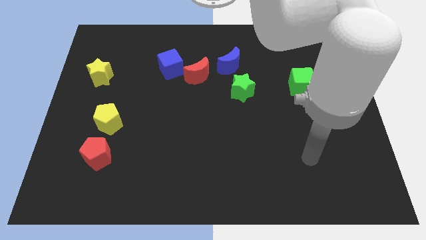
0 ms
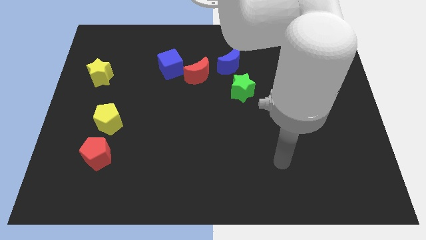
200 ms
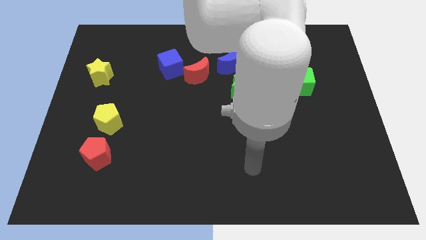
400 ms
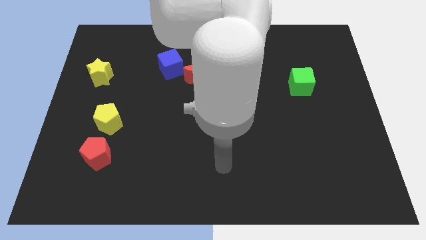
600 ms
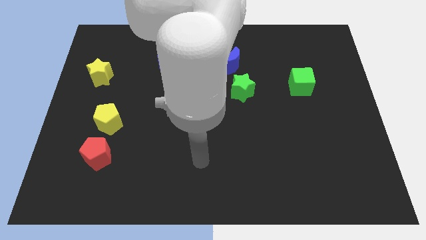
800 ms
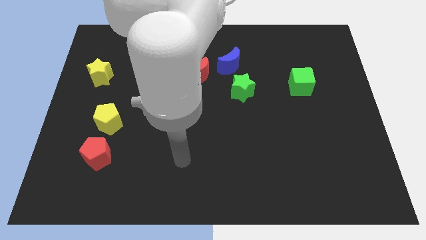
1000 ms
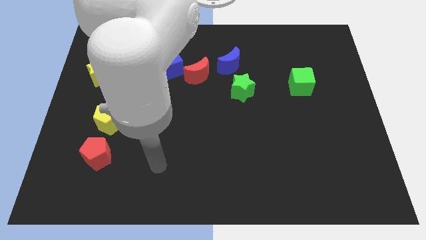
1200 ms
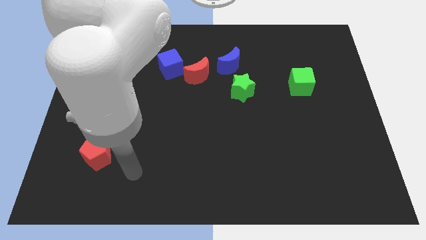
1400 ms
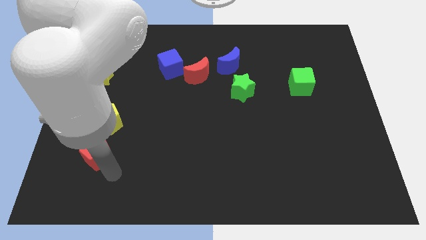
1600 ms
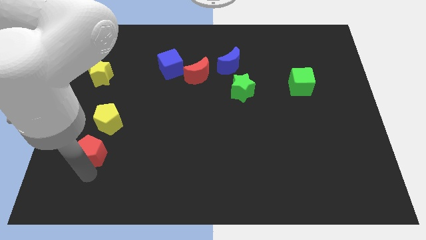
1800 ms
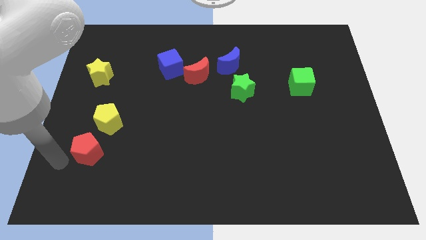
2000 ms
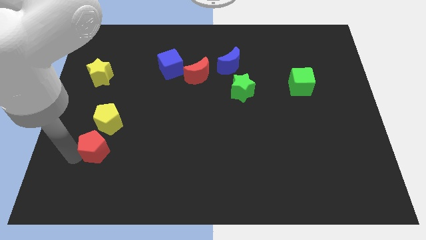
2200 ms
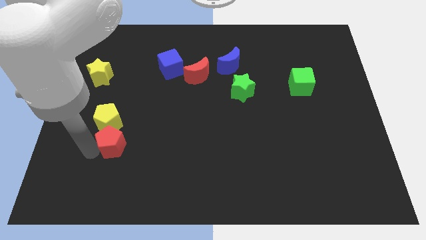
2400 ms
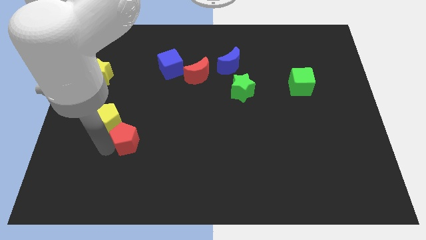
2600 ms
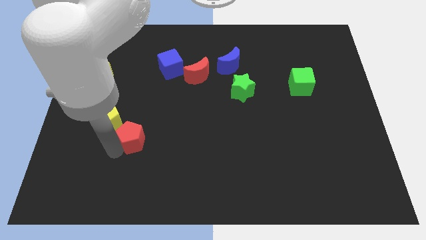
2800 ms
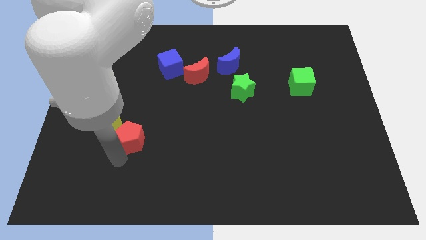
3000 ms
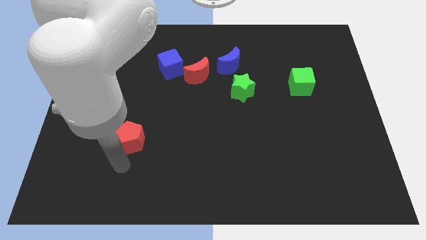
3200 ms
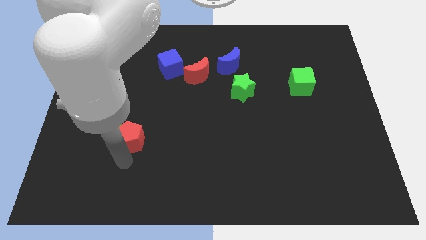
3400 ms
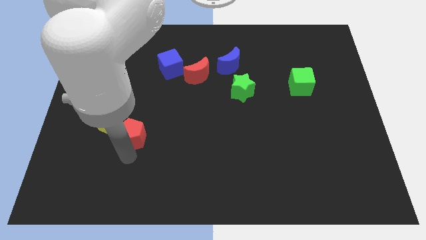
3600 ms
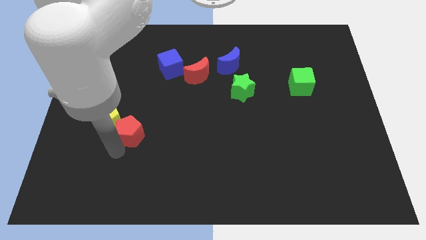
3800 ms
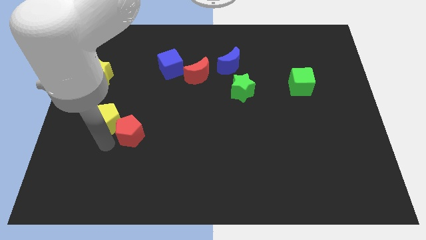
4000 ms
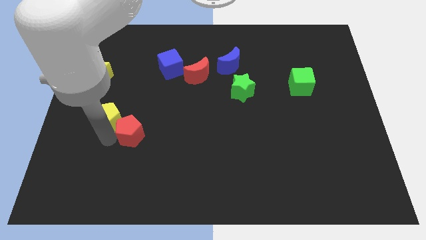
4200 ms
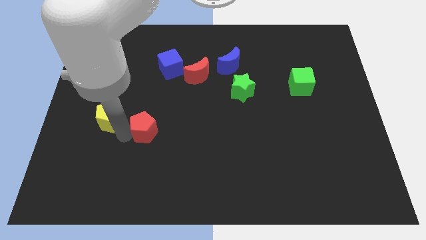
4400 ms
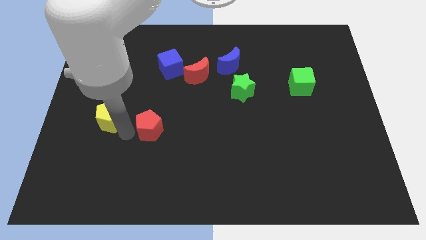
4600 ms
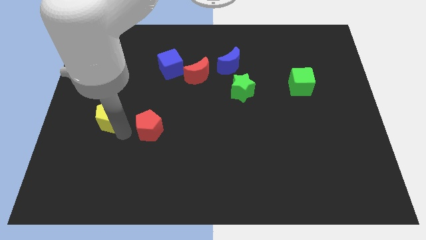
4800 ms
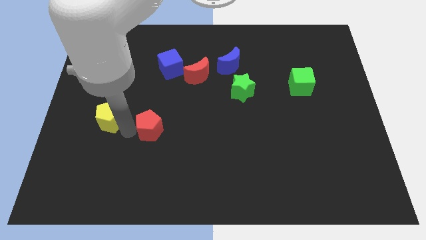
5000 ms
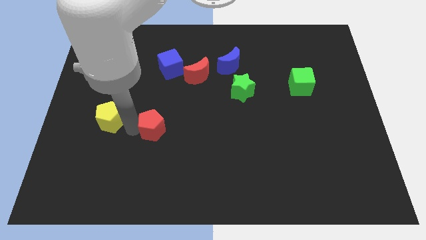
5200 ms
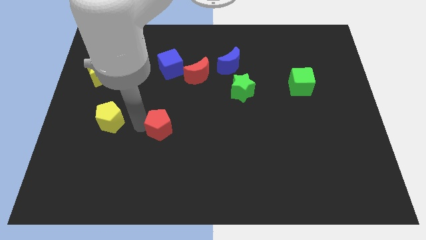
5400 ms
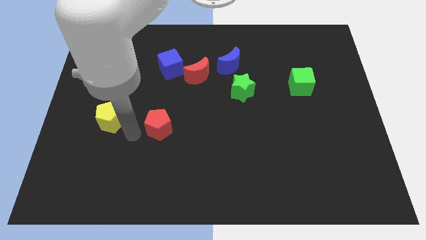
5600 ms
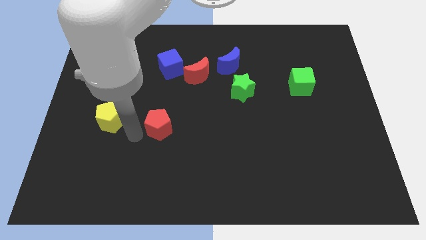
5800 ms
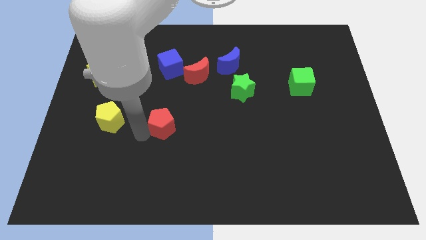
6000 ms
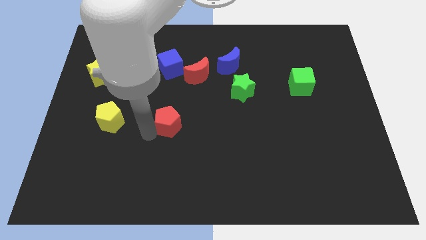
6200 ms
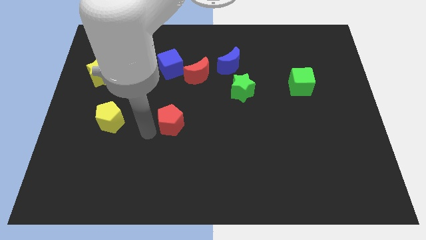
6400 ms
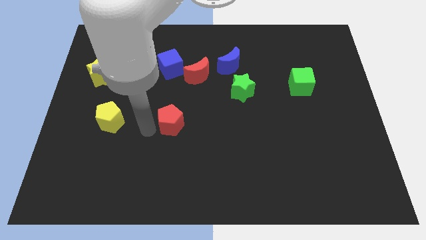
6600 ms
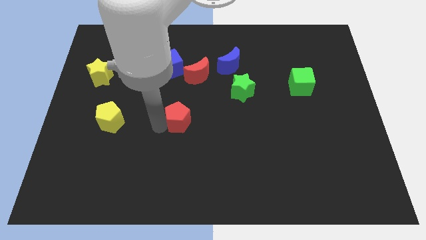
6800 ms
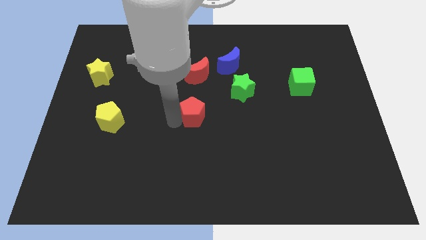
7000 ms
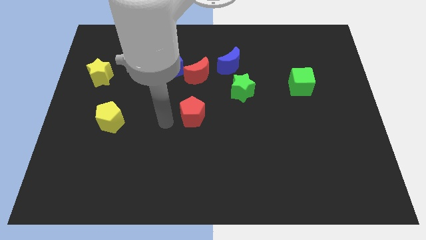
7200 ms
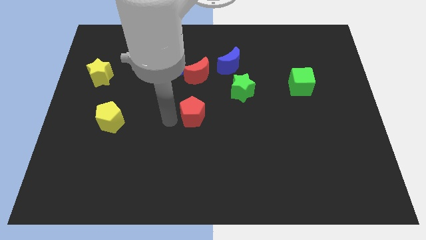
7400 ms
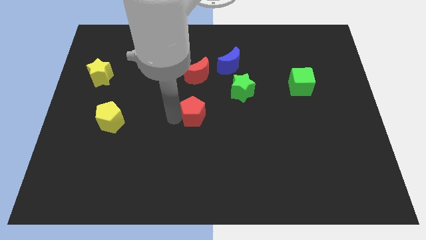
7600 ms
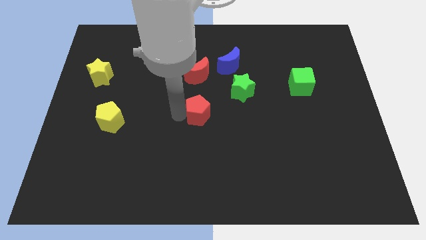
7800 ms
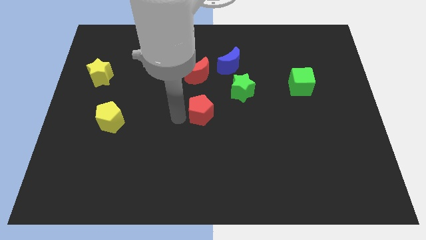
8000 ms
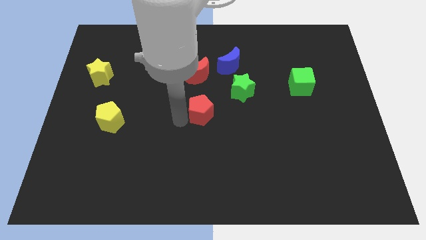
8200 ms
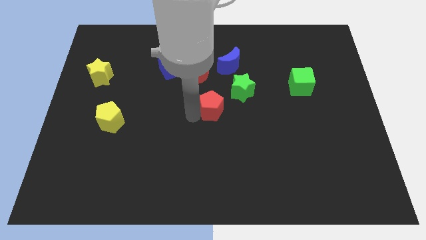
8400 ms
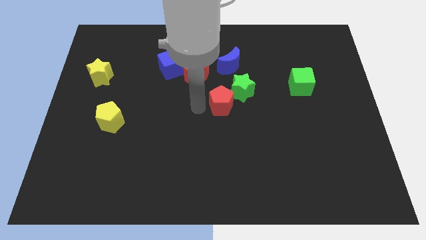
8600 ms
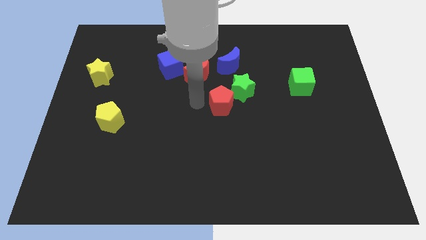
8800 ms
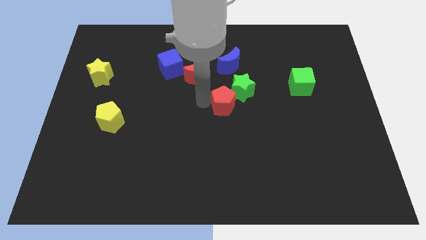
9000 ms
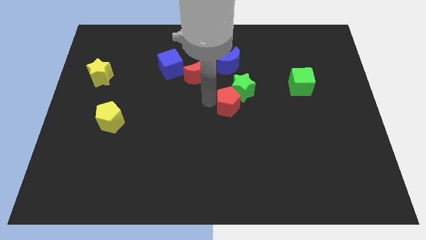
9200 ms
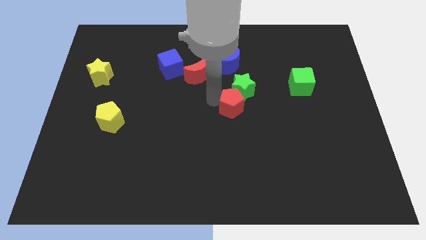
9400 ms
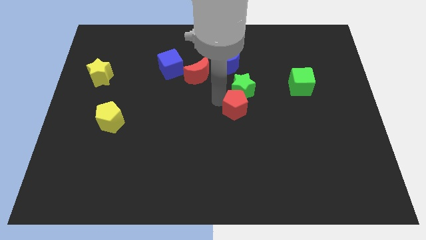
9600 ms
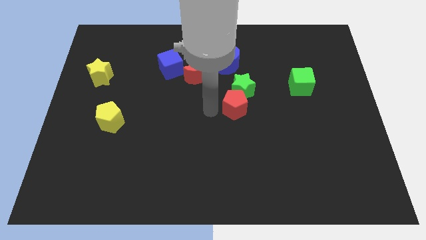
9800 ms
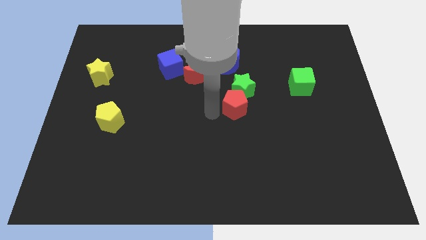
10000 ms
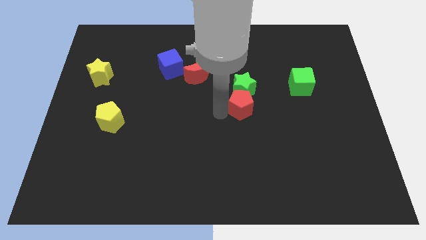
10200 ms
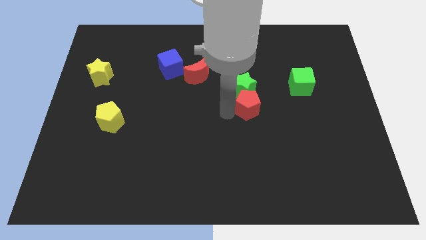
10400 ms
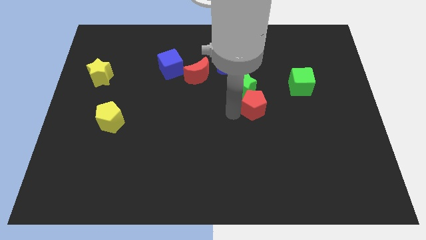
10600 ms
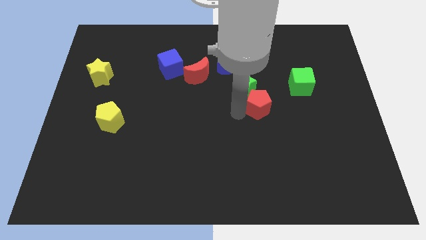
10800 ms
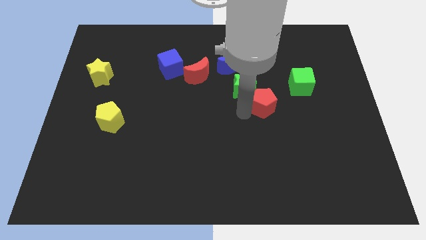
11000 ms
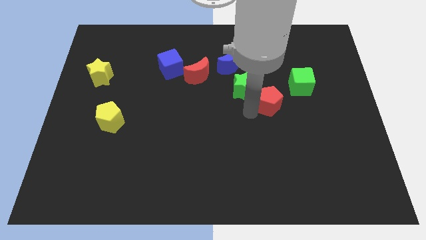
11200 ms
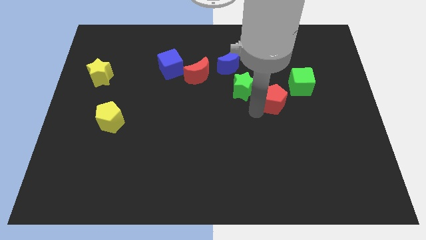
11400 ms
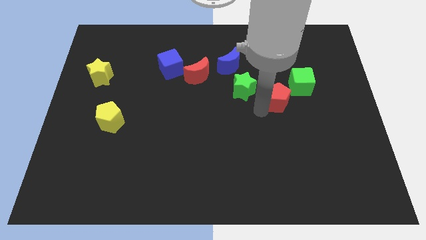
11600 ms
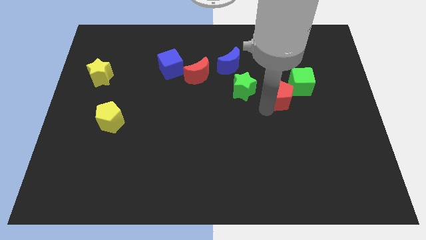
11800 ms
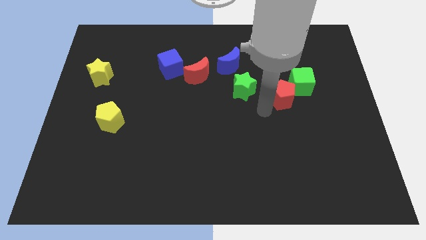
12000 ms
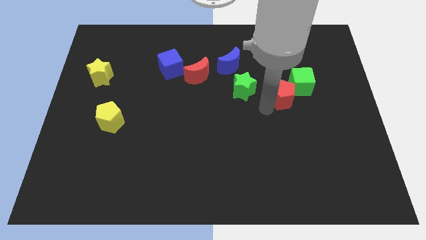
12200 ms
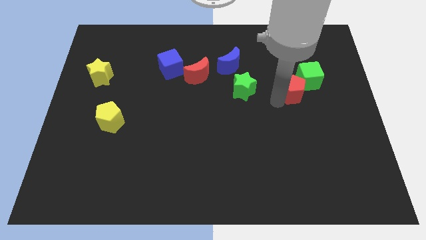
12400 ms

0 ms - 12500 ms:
push the red pentagon next to the green cube

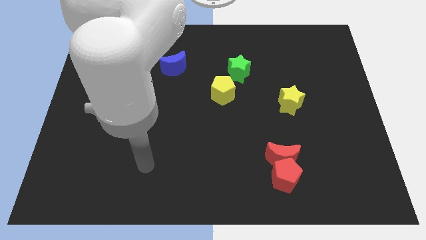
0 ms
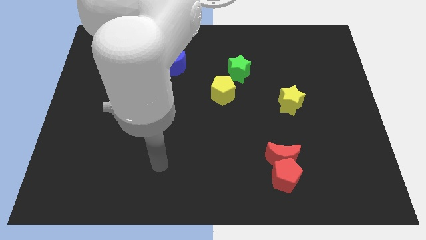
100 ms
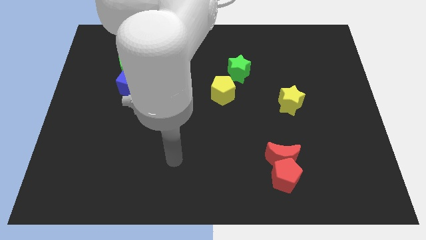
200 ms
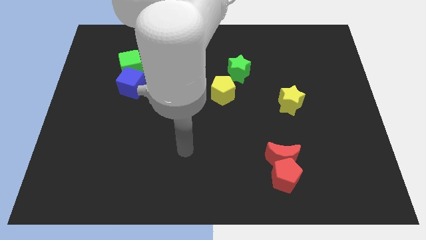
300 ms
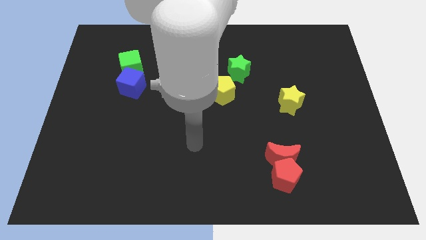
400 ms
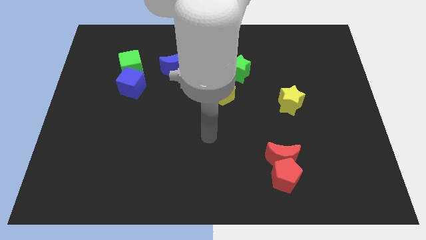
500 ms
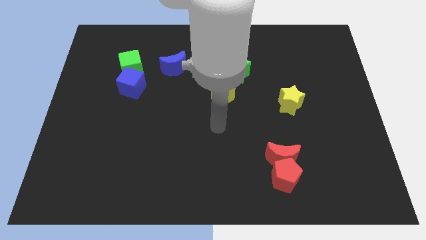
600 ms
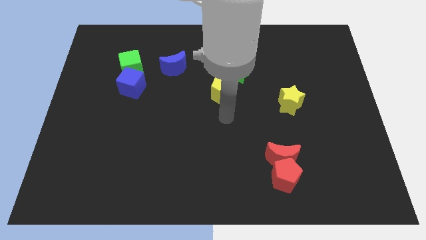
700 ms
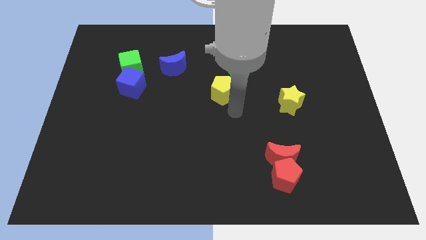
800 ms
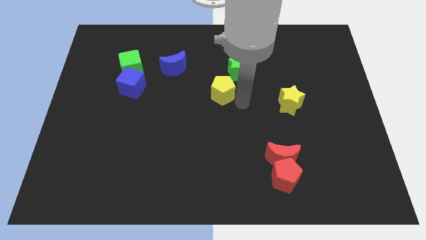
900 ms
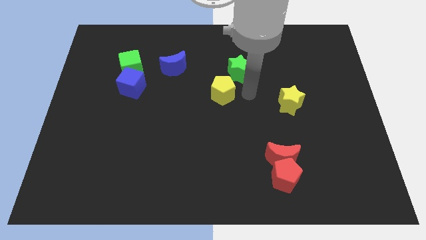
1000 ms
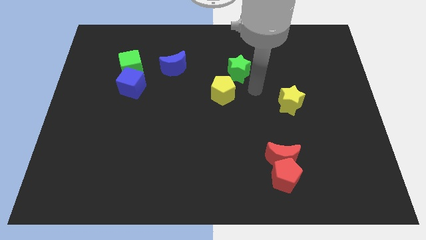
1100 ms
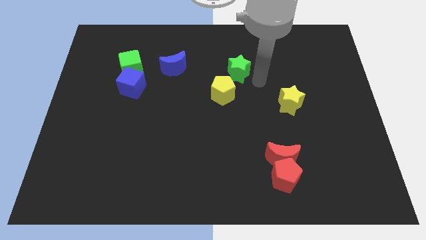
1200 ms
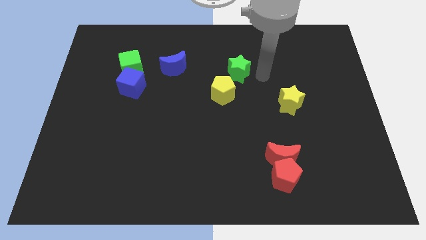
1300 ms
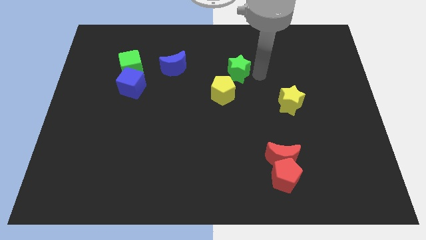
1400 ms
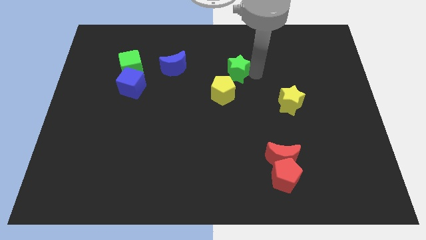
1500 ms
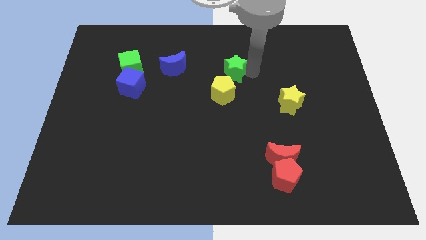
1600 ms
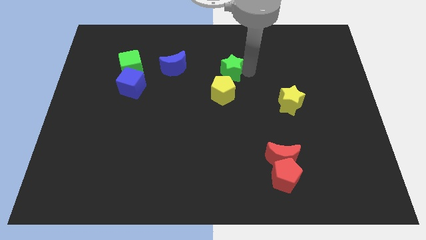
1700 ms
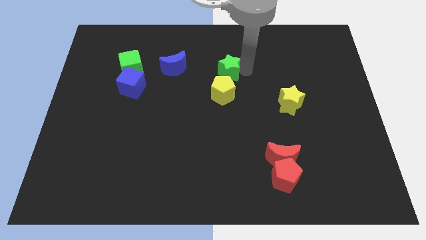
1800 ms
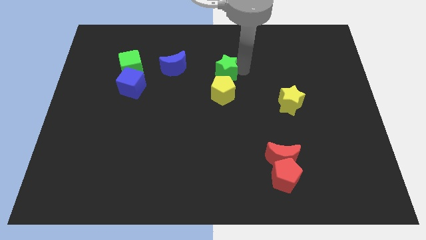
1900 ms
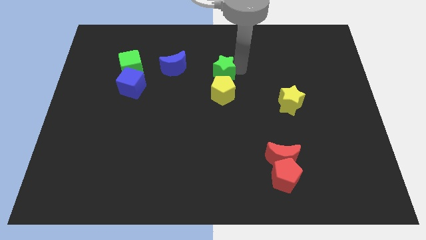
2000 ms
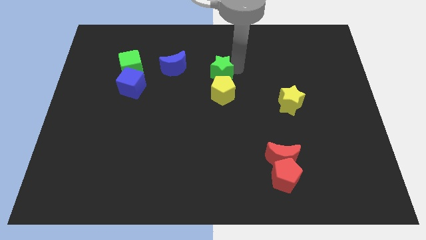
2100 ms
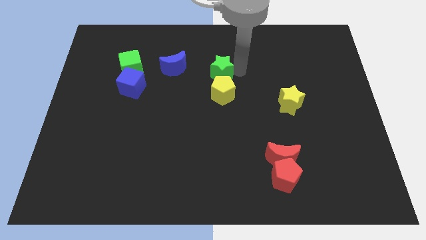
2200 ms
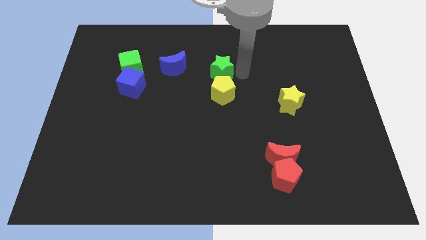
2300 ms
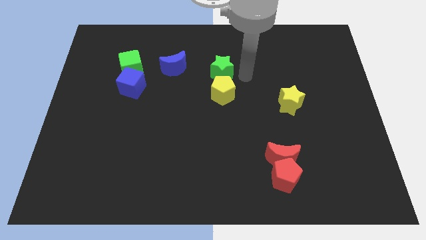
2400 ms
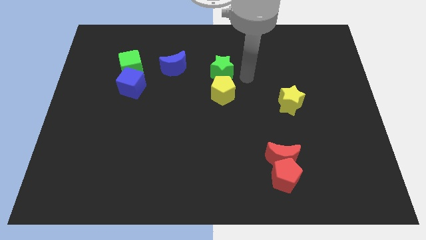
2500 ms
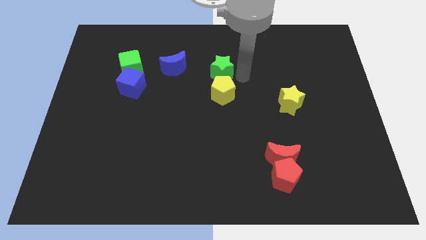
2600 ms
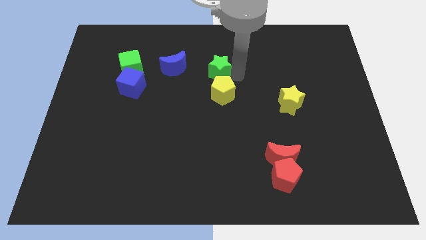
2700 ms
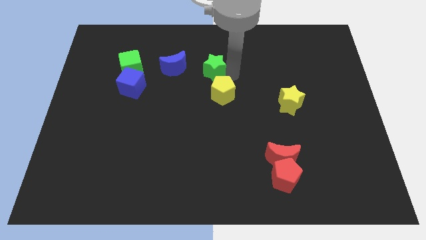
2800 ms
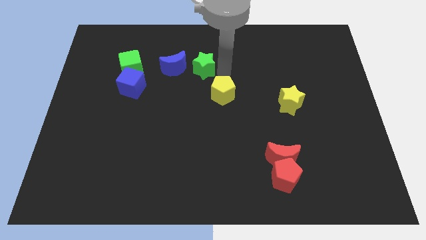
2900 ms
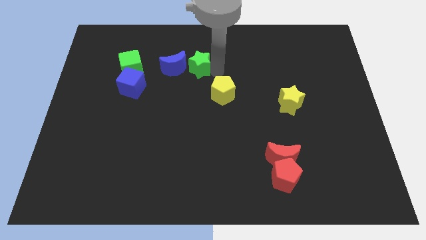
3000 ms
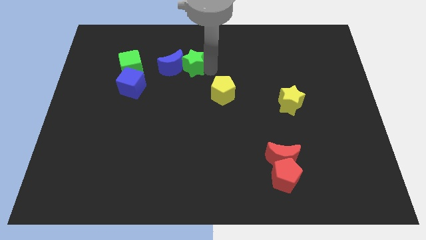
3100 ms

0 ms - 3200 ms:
move the green star next to the blue moon
